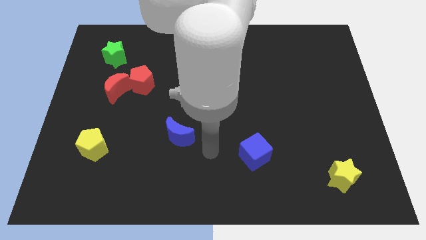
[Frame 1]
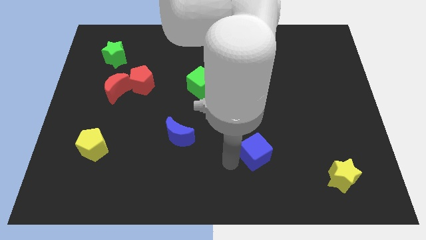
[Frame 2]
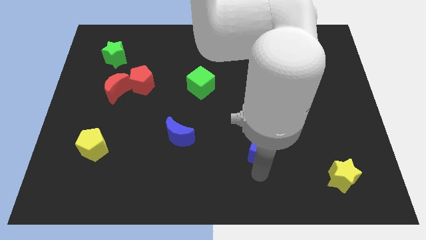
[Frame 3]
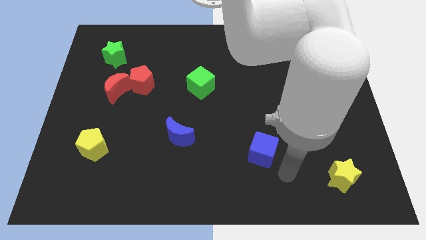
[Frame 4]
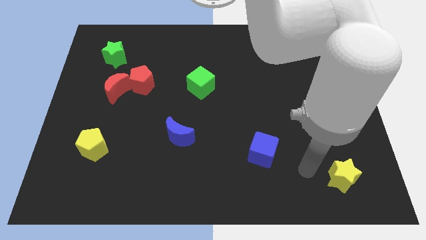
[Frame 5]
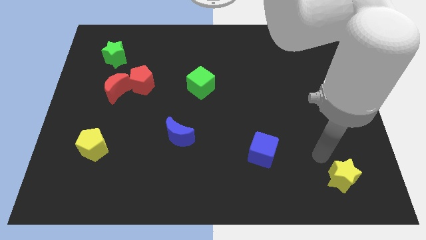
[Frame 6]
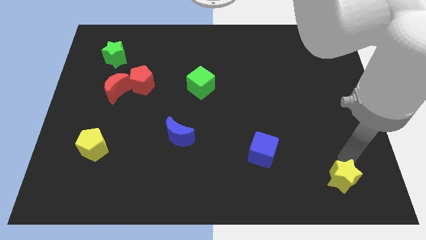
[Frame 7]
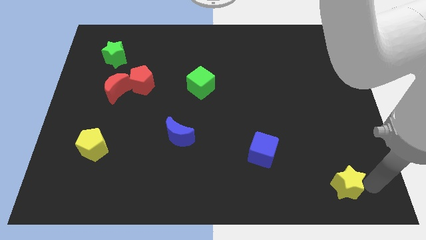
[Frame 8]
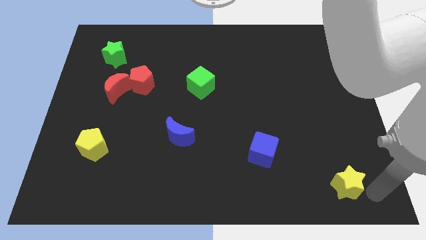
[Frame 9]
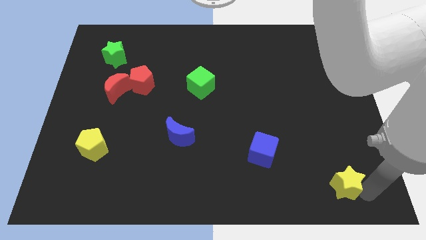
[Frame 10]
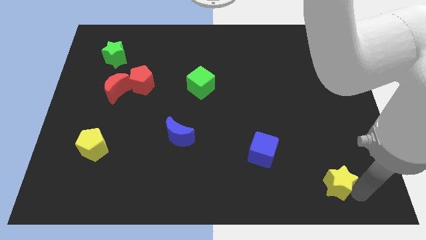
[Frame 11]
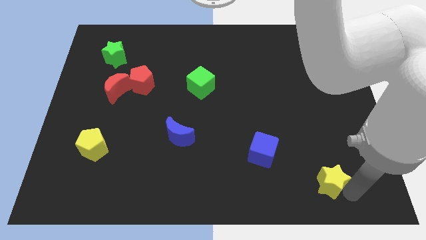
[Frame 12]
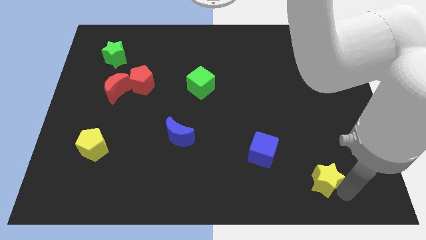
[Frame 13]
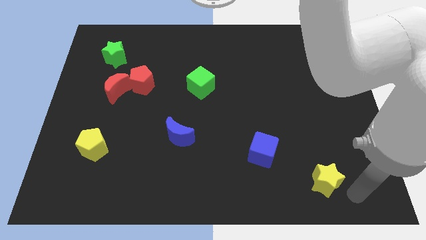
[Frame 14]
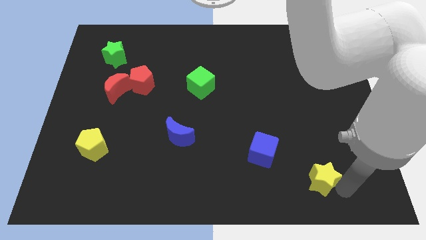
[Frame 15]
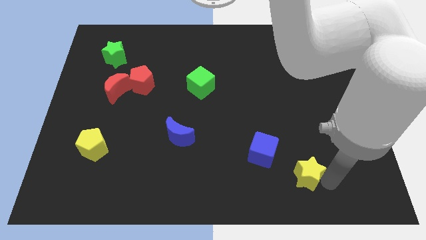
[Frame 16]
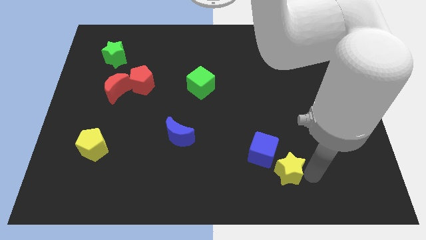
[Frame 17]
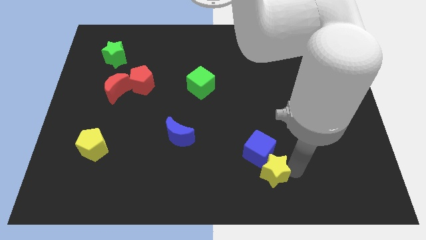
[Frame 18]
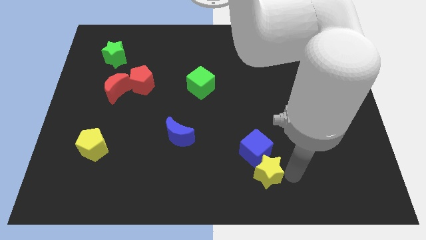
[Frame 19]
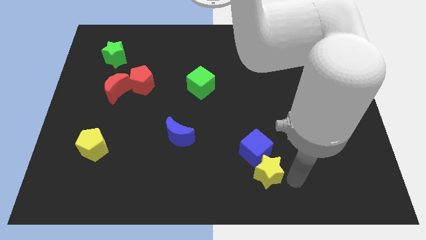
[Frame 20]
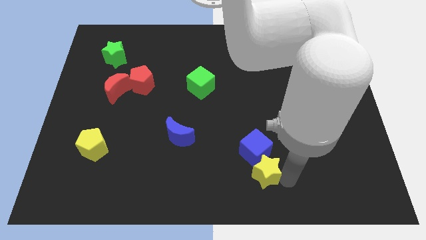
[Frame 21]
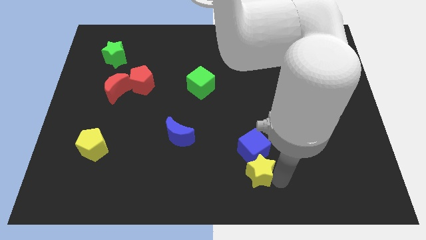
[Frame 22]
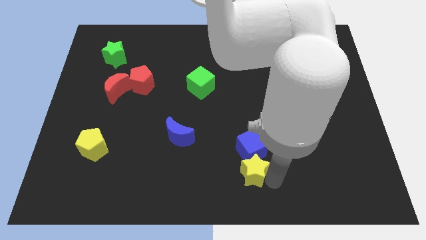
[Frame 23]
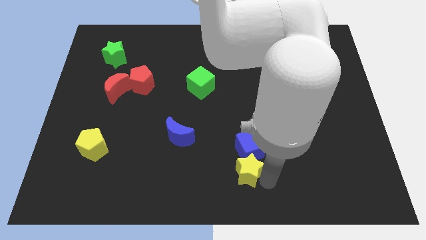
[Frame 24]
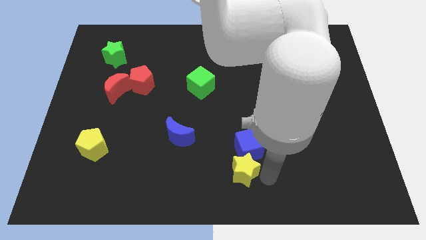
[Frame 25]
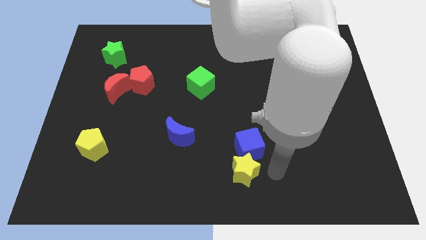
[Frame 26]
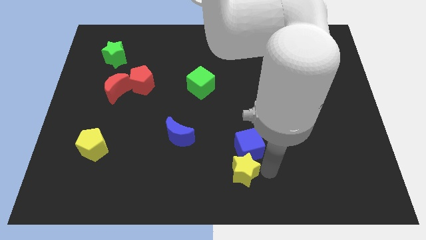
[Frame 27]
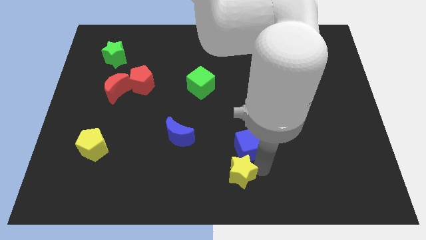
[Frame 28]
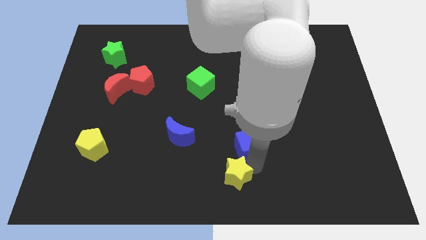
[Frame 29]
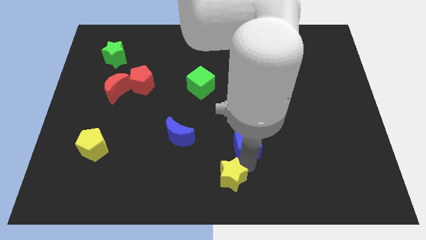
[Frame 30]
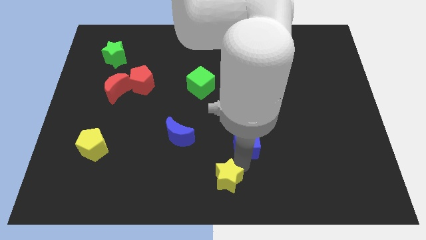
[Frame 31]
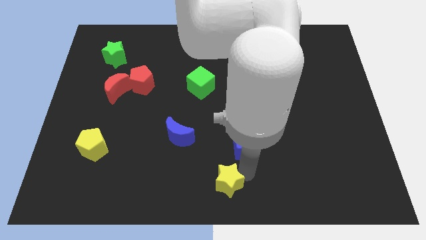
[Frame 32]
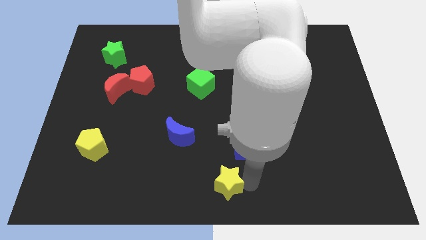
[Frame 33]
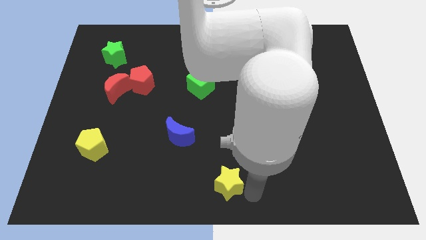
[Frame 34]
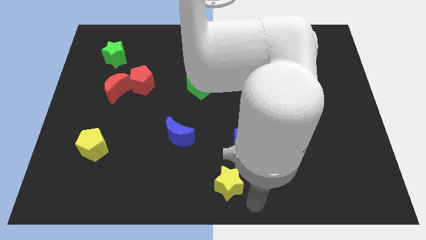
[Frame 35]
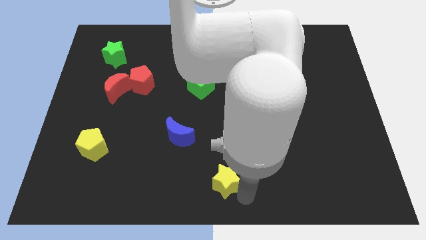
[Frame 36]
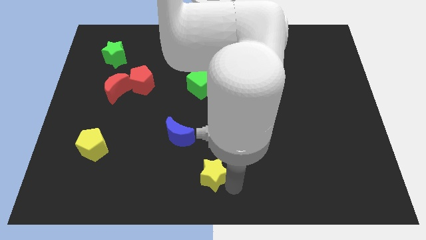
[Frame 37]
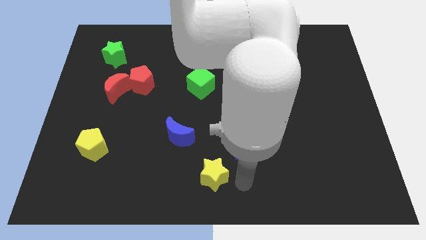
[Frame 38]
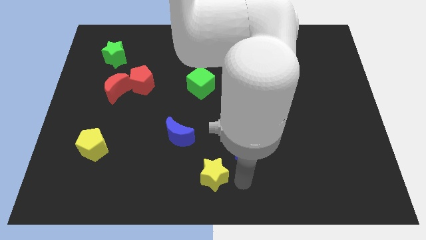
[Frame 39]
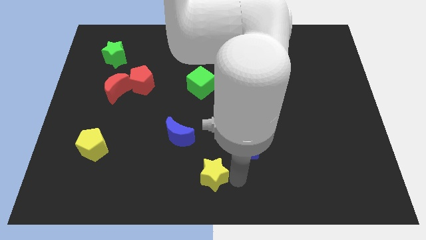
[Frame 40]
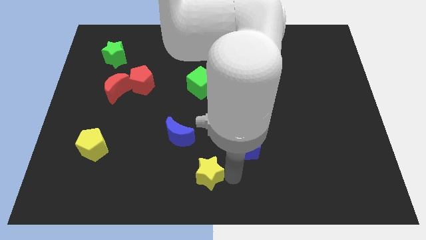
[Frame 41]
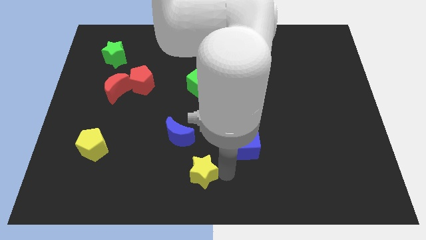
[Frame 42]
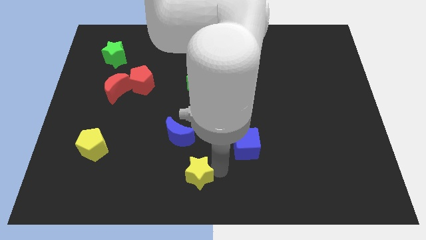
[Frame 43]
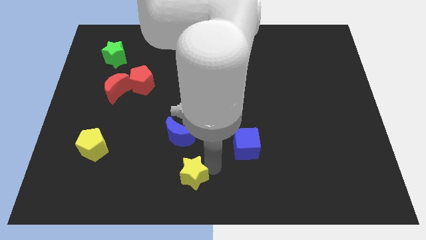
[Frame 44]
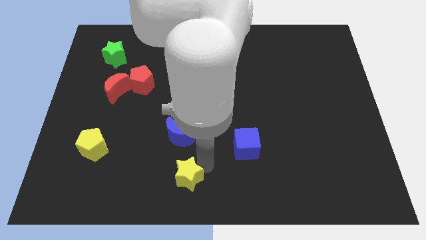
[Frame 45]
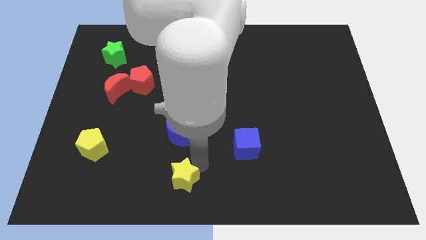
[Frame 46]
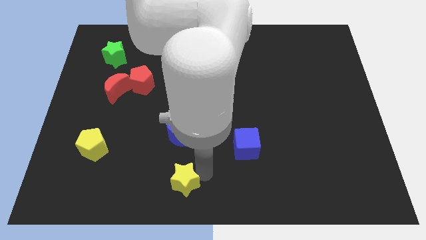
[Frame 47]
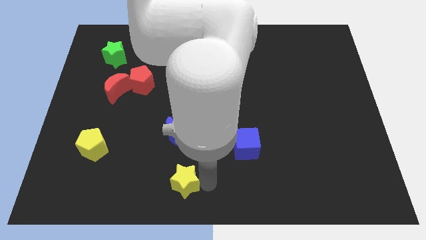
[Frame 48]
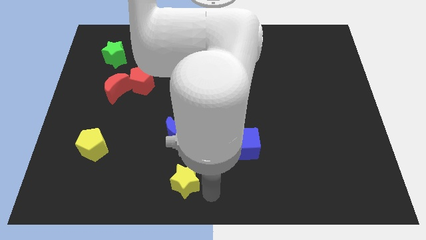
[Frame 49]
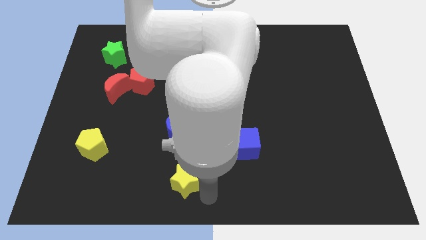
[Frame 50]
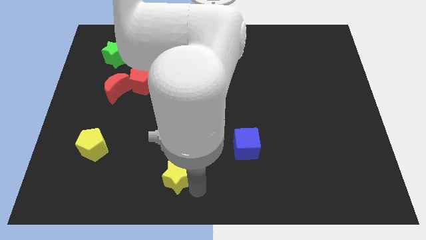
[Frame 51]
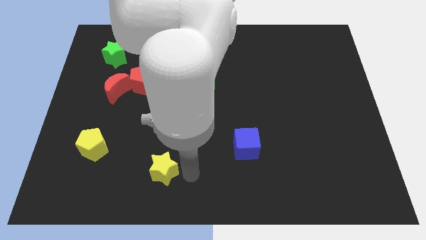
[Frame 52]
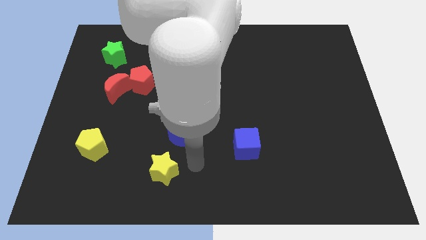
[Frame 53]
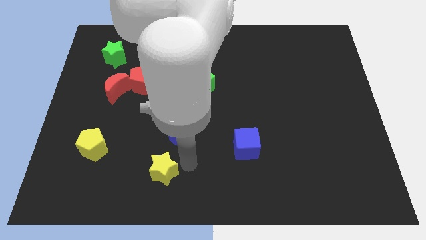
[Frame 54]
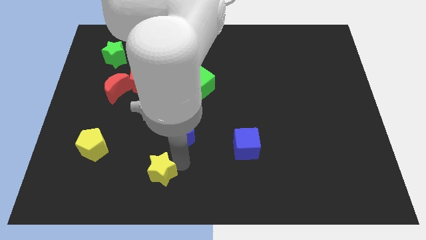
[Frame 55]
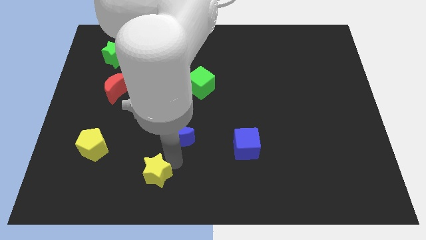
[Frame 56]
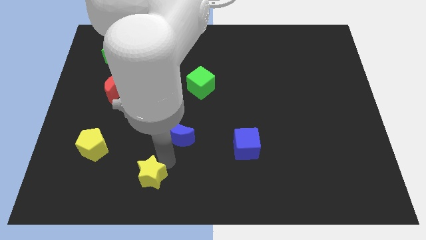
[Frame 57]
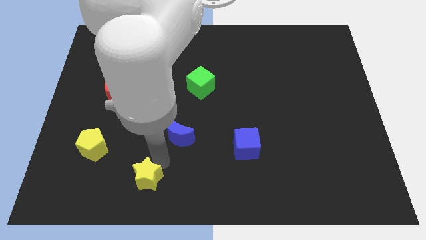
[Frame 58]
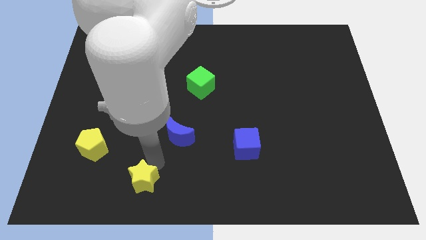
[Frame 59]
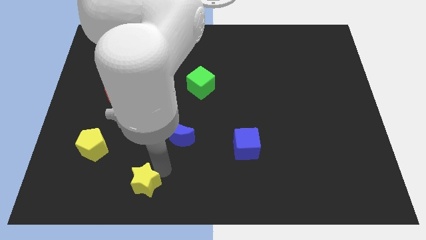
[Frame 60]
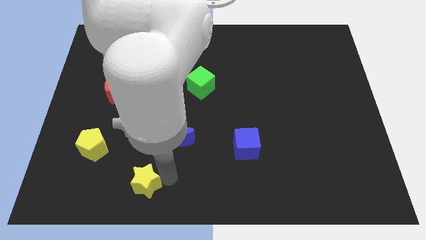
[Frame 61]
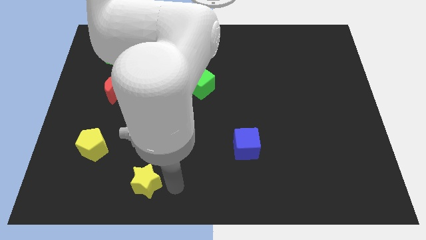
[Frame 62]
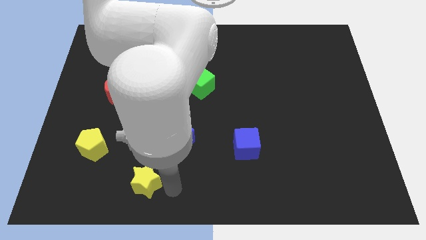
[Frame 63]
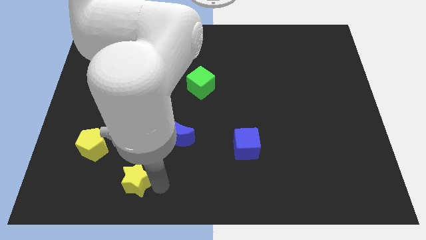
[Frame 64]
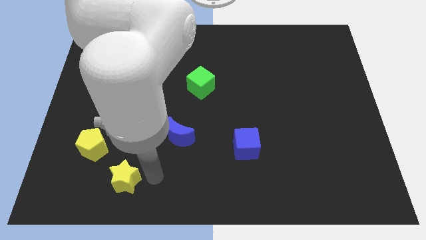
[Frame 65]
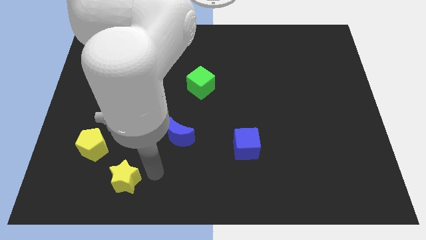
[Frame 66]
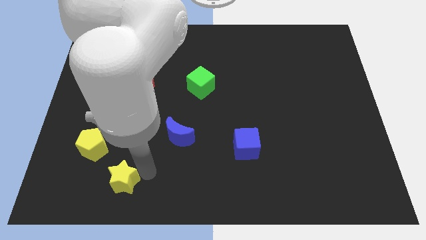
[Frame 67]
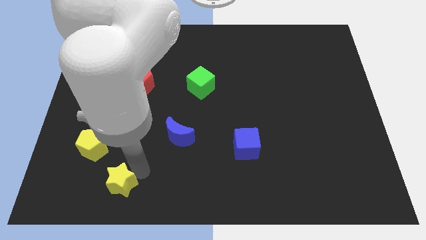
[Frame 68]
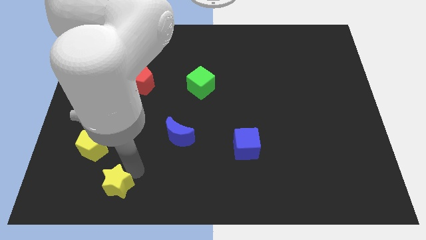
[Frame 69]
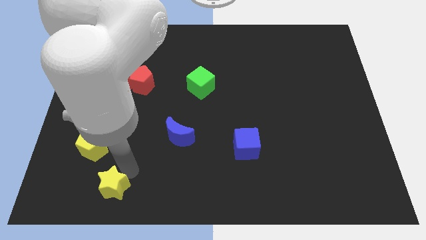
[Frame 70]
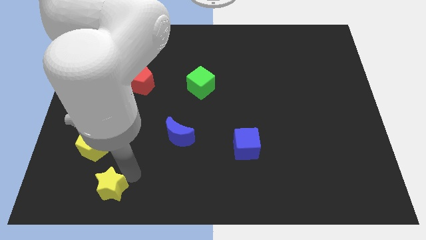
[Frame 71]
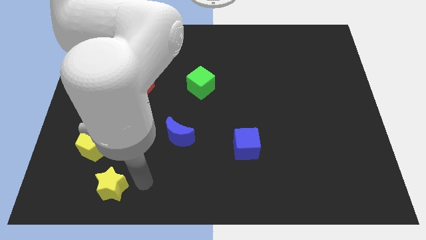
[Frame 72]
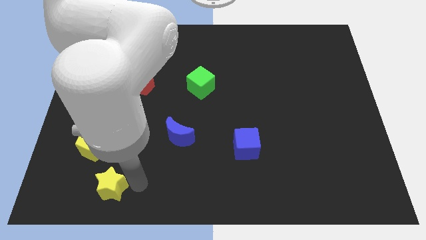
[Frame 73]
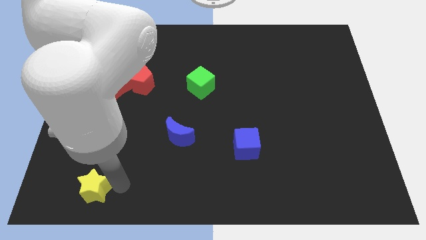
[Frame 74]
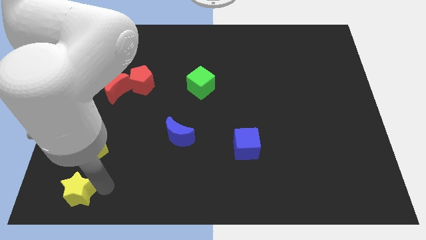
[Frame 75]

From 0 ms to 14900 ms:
slide the yellow star to the bottom left corner
